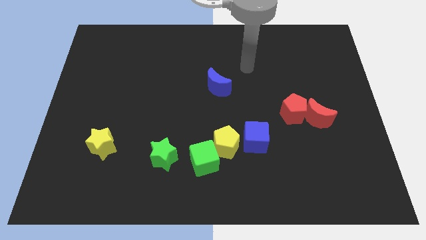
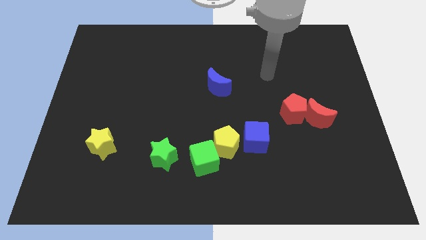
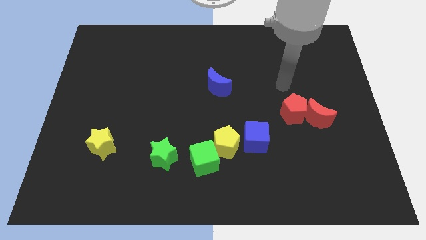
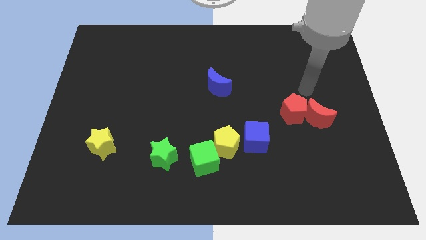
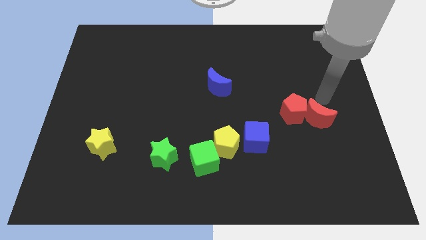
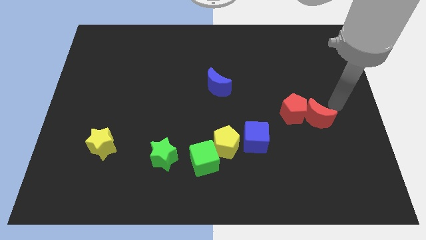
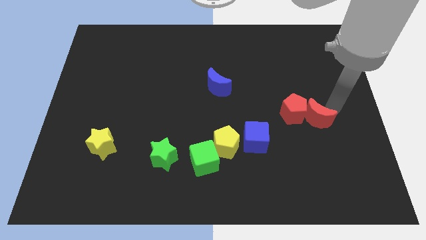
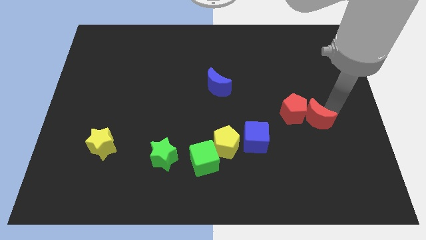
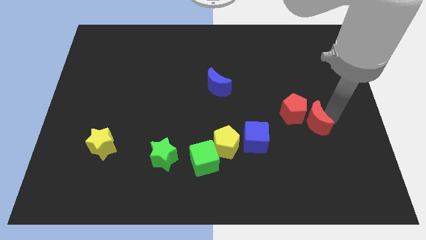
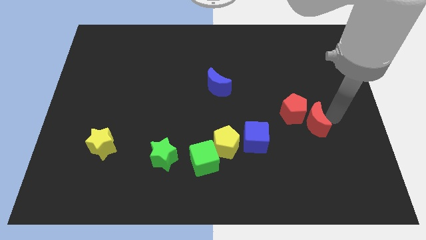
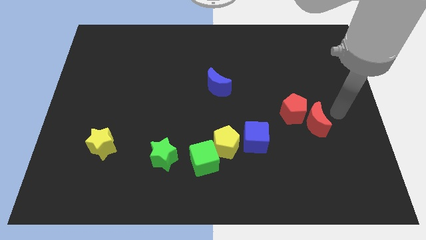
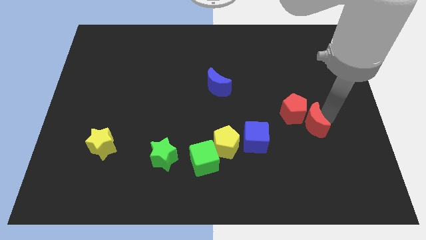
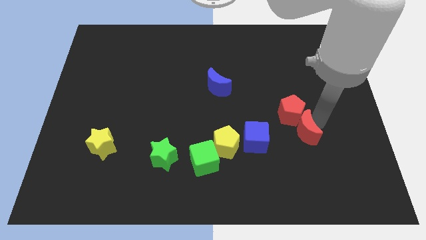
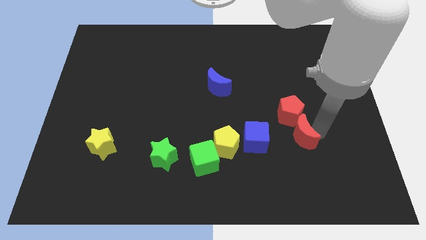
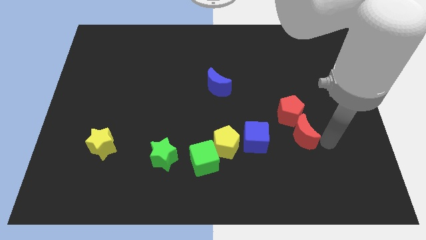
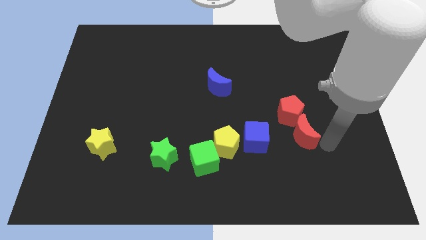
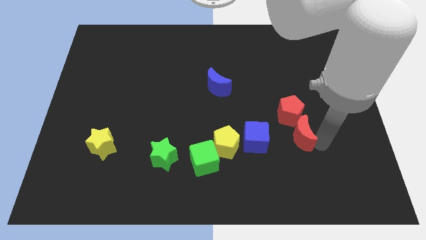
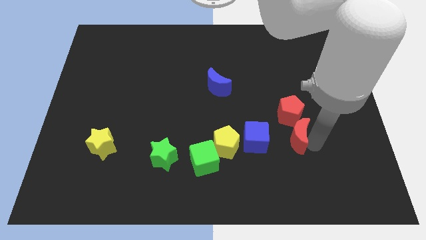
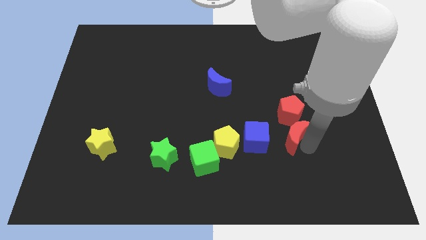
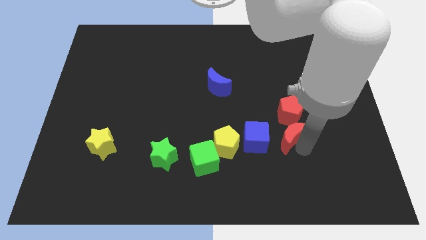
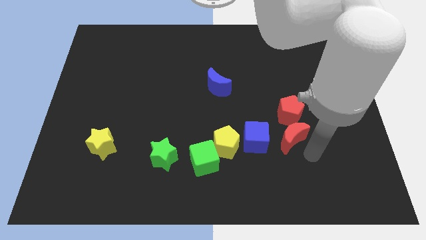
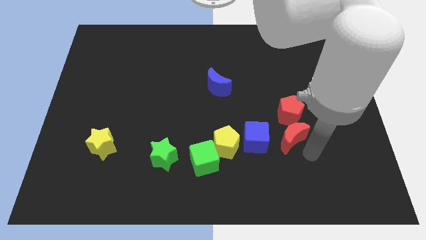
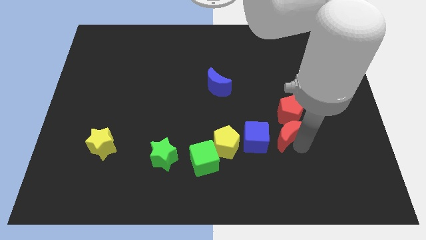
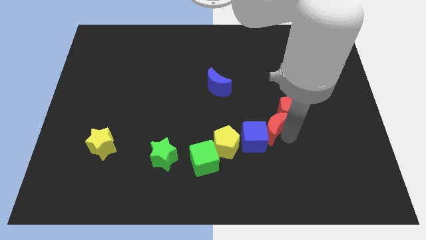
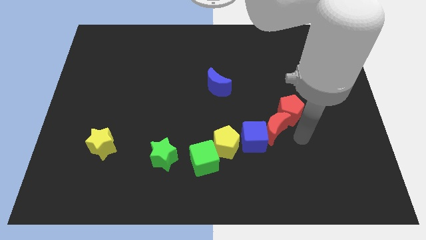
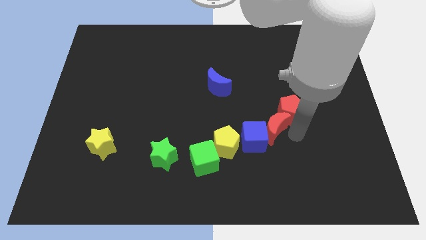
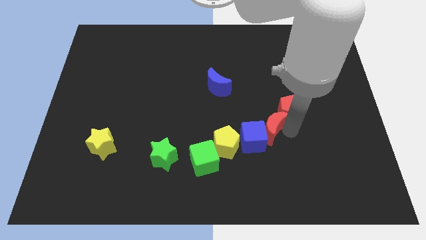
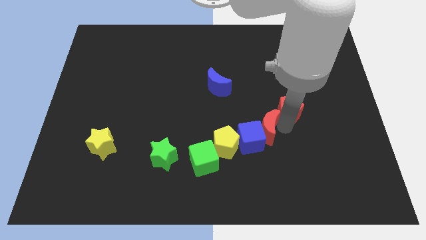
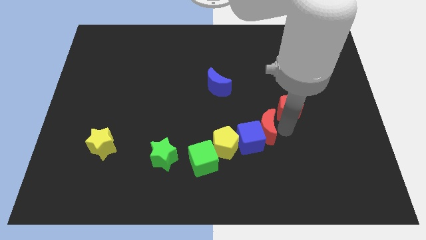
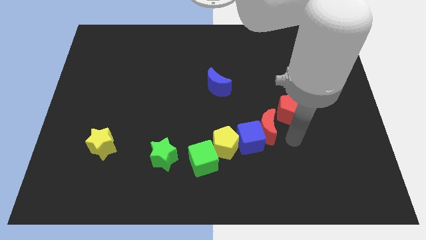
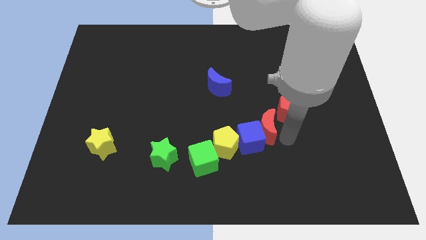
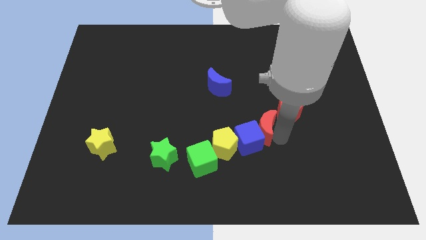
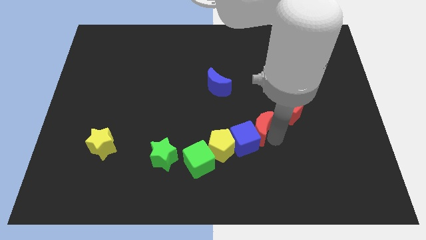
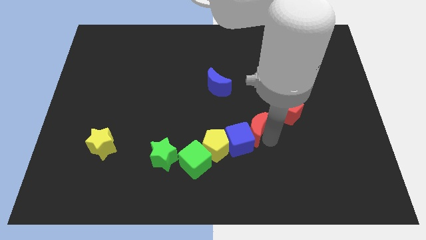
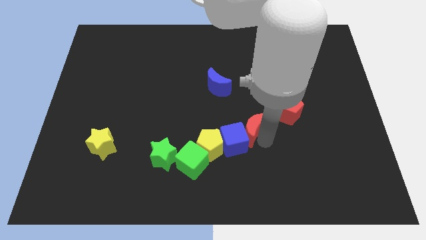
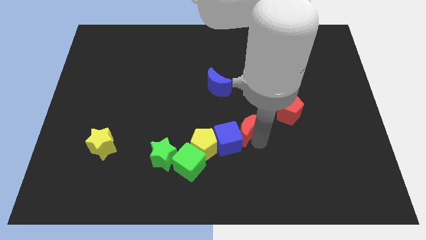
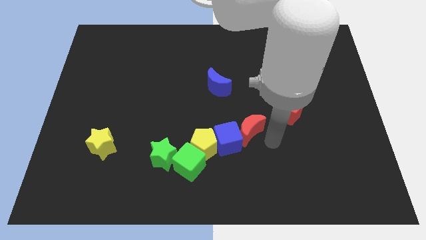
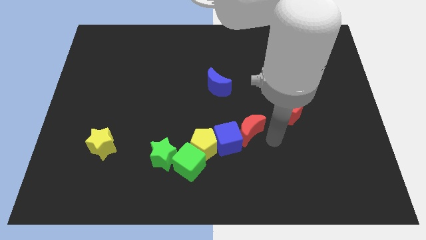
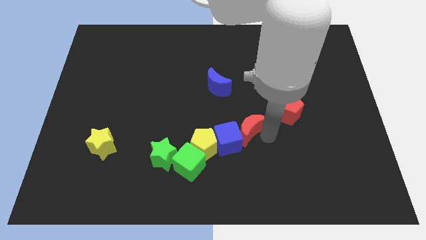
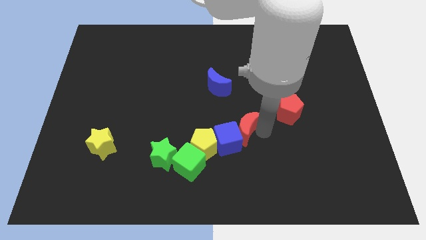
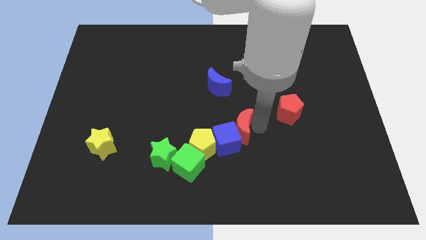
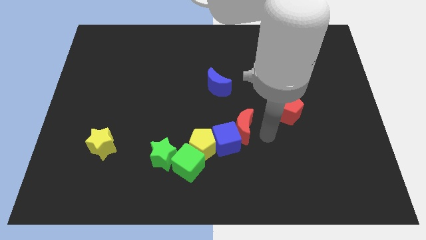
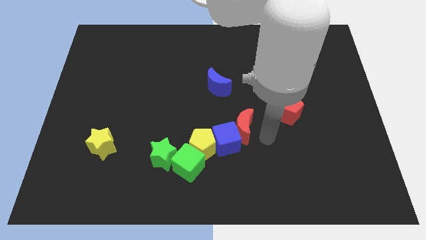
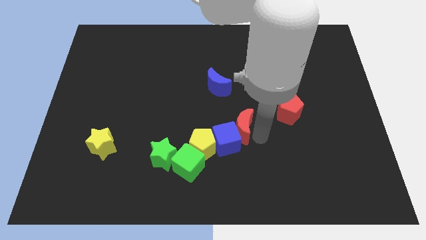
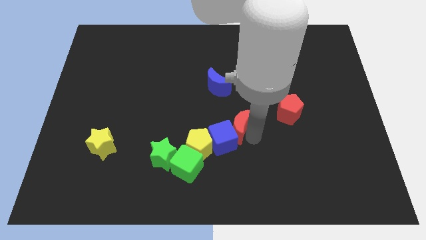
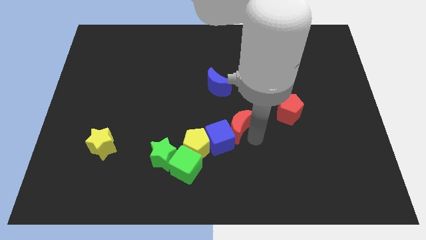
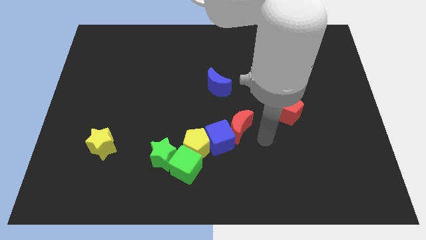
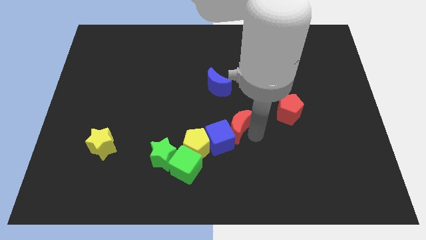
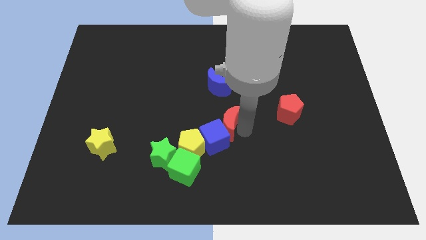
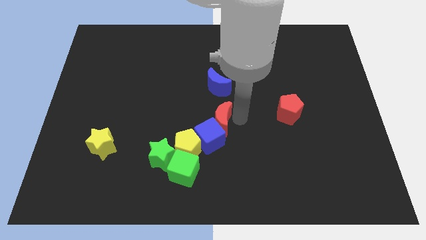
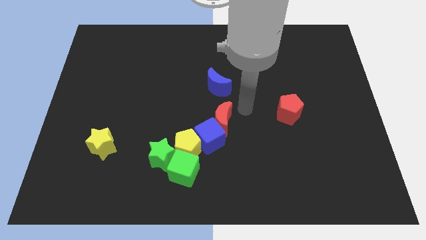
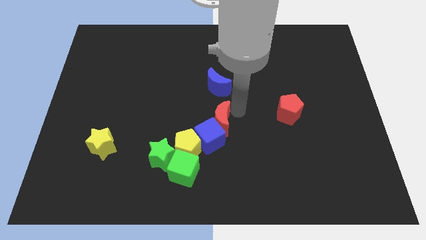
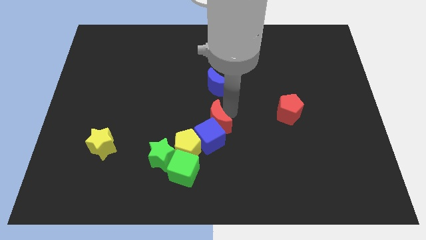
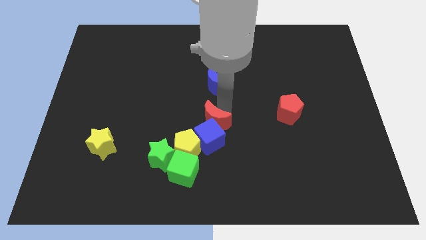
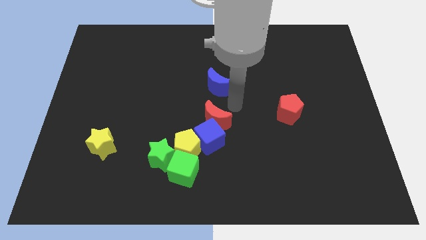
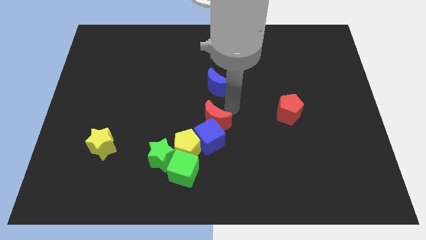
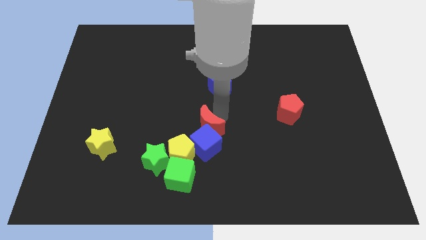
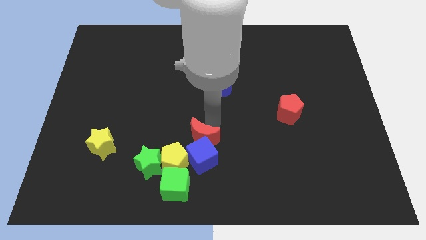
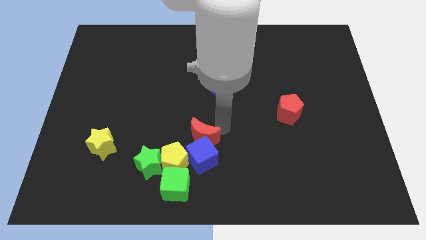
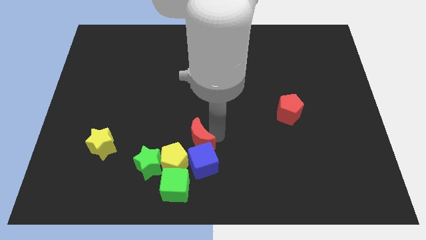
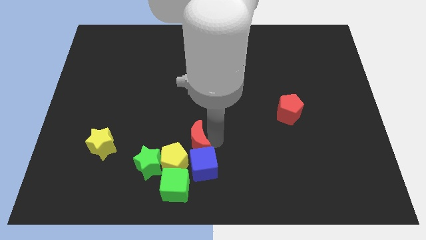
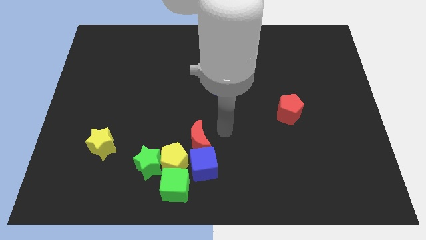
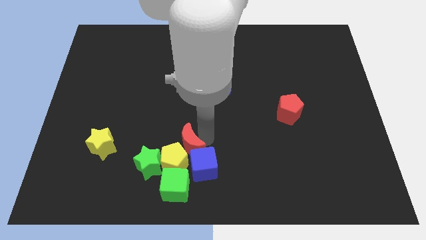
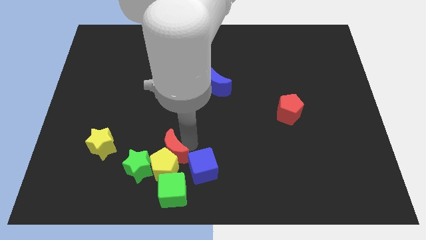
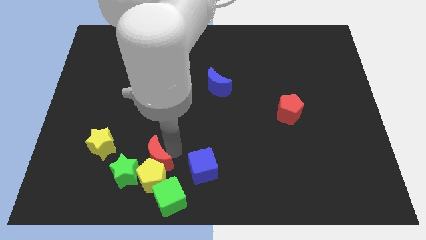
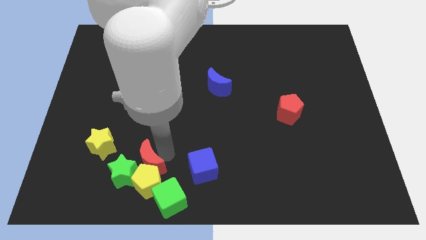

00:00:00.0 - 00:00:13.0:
put the red moon to the green star
